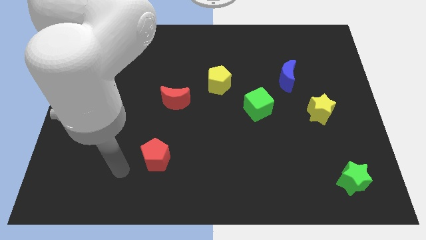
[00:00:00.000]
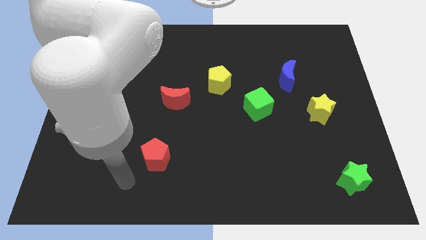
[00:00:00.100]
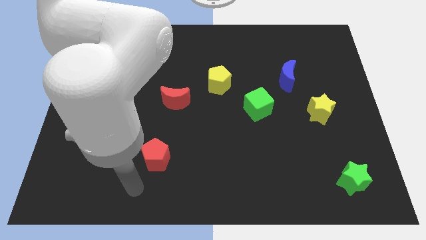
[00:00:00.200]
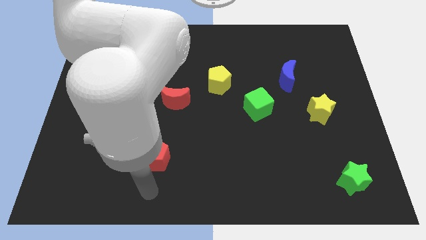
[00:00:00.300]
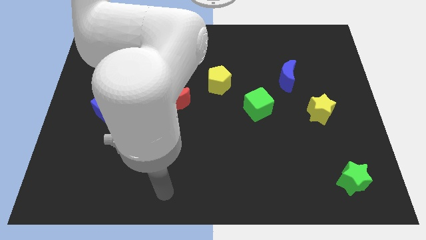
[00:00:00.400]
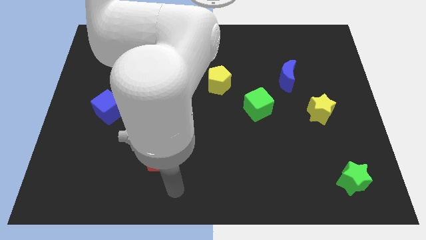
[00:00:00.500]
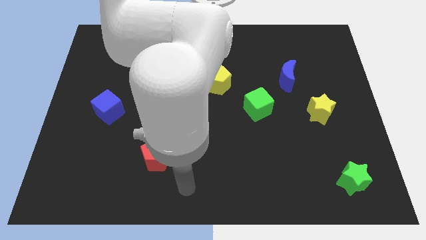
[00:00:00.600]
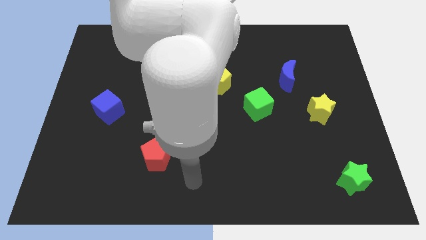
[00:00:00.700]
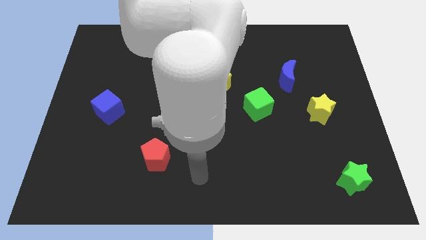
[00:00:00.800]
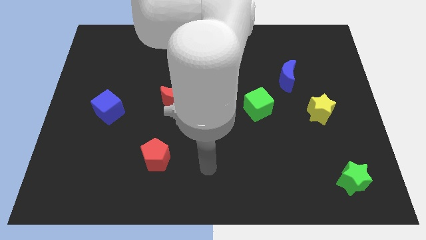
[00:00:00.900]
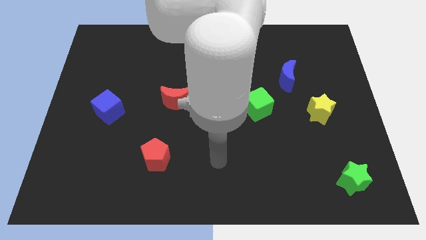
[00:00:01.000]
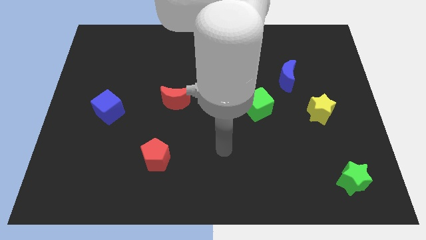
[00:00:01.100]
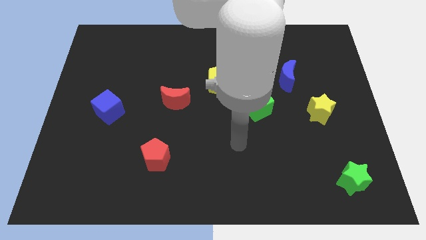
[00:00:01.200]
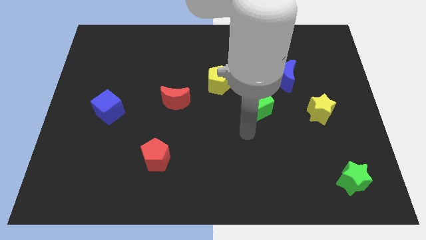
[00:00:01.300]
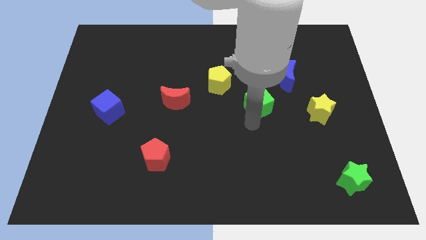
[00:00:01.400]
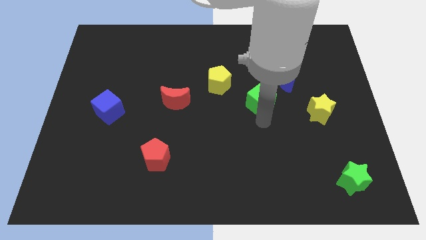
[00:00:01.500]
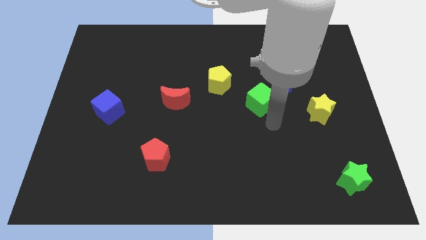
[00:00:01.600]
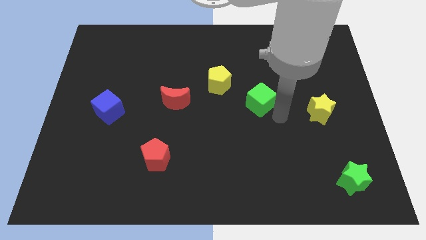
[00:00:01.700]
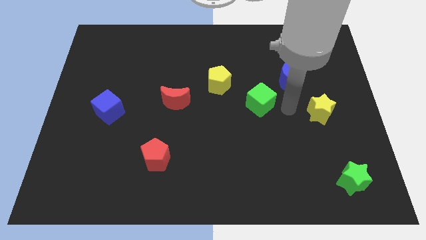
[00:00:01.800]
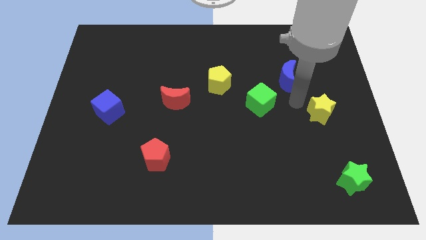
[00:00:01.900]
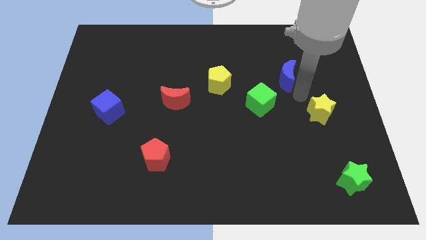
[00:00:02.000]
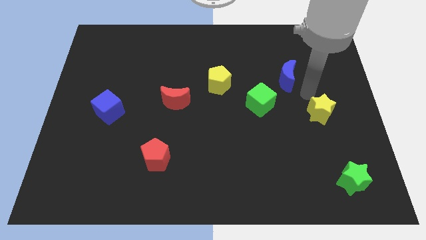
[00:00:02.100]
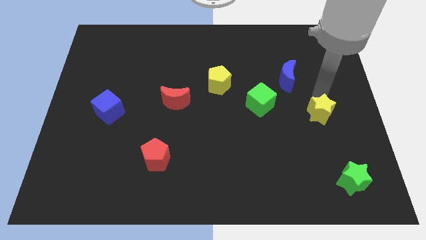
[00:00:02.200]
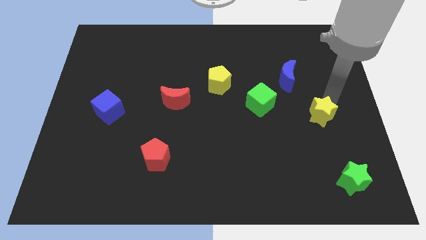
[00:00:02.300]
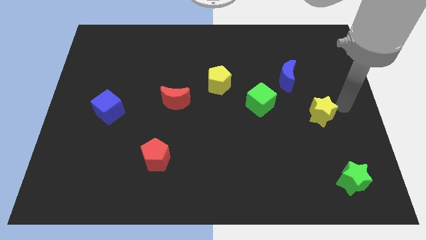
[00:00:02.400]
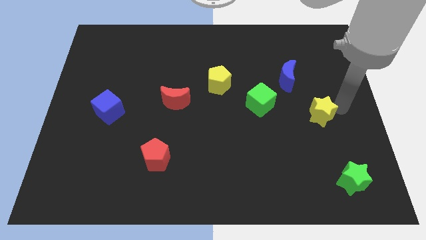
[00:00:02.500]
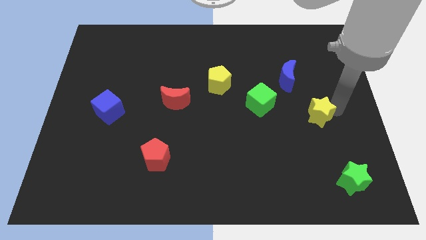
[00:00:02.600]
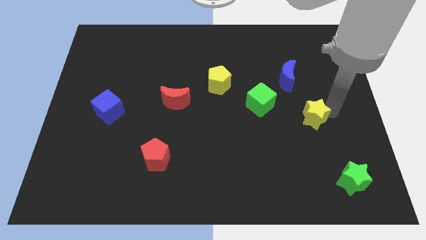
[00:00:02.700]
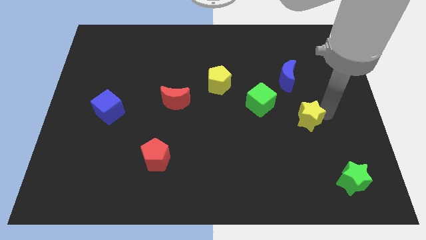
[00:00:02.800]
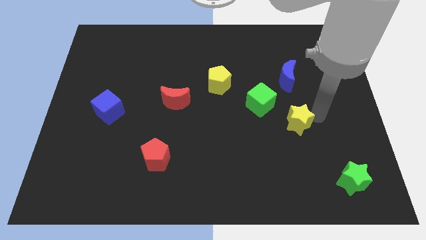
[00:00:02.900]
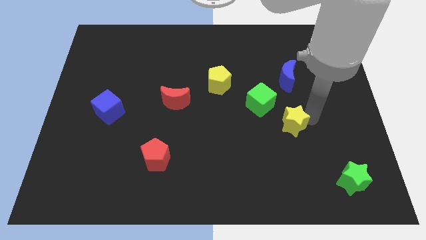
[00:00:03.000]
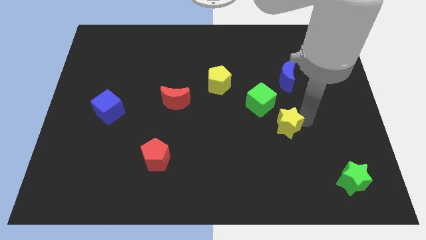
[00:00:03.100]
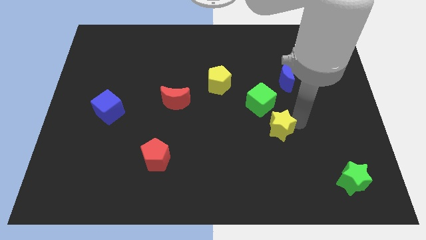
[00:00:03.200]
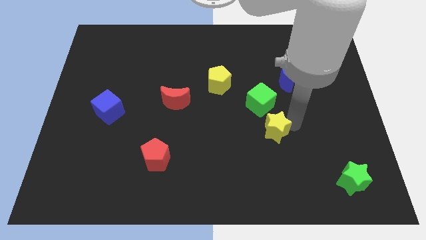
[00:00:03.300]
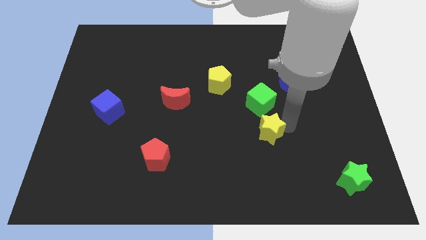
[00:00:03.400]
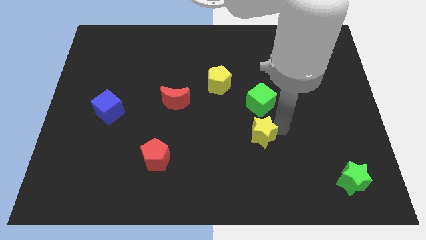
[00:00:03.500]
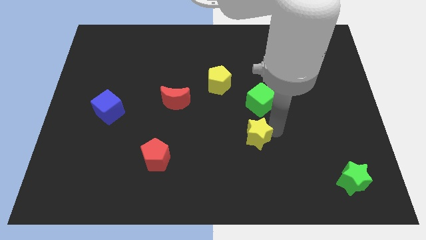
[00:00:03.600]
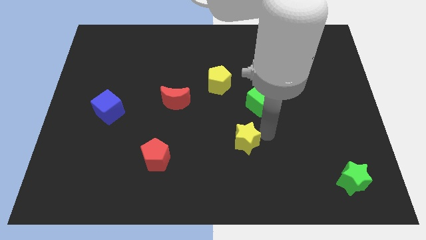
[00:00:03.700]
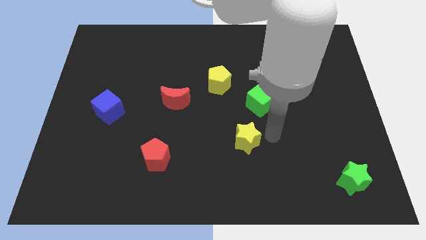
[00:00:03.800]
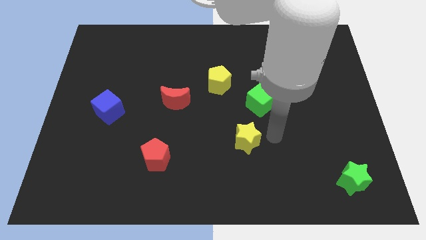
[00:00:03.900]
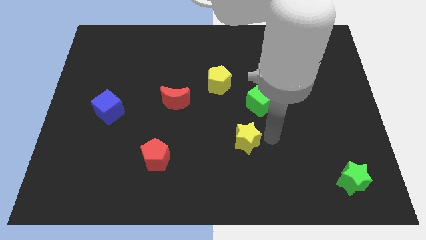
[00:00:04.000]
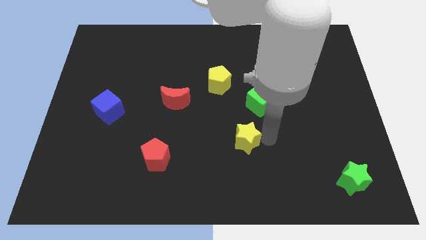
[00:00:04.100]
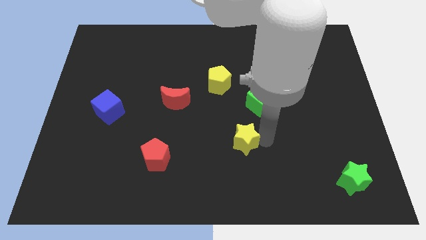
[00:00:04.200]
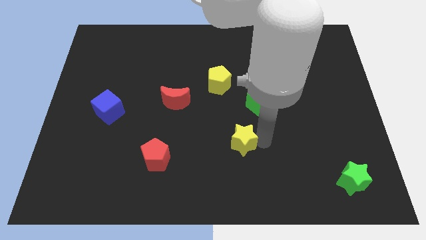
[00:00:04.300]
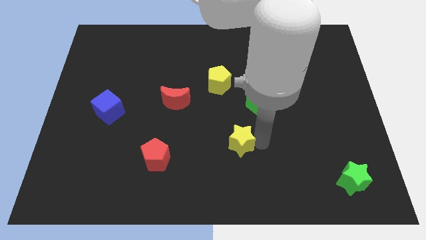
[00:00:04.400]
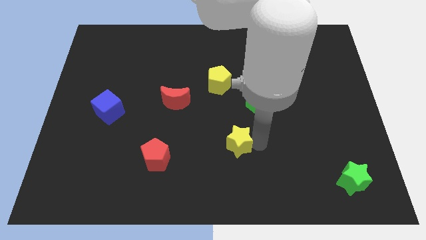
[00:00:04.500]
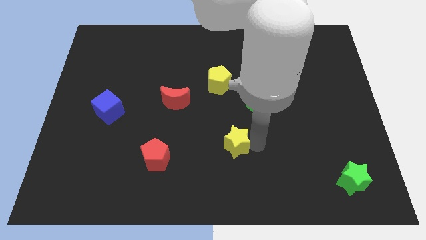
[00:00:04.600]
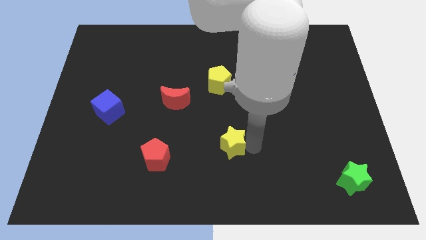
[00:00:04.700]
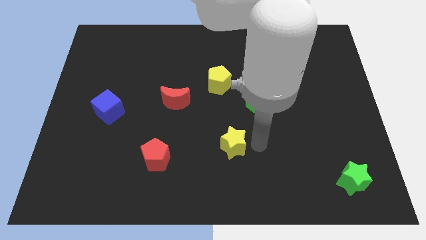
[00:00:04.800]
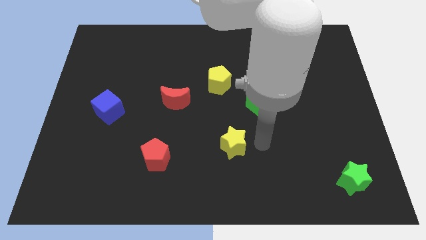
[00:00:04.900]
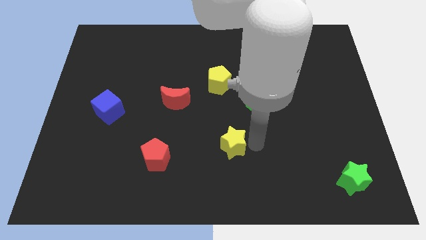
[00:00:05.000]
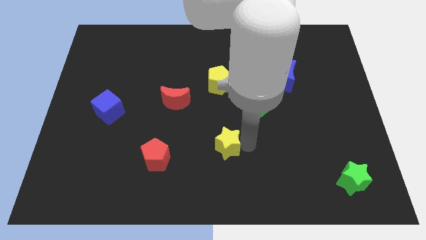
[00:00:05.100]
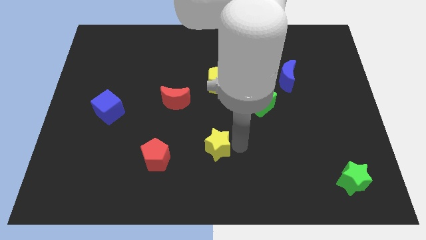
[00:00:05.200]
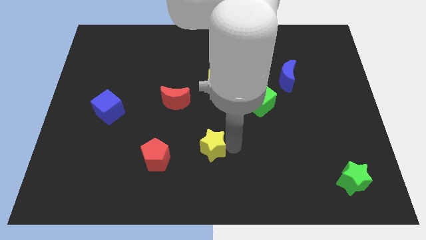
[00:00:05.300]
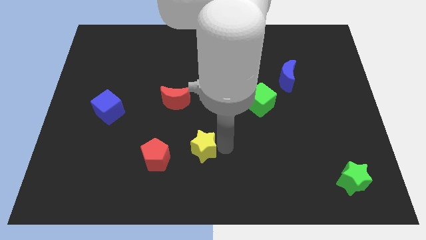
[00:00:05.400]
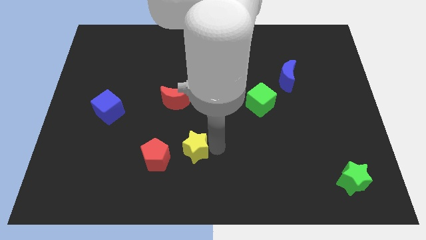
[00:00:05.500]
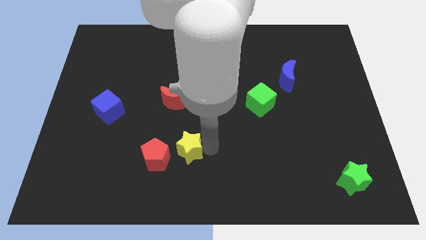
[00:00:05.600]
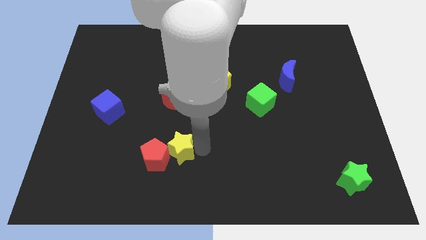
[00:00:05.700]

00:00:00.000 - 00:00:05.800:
move the yellow star to the red pentagon

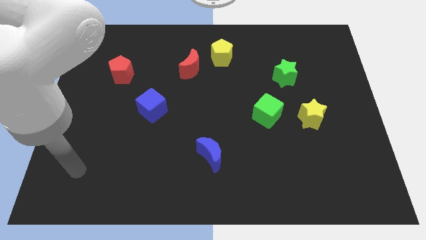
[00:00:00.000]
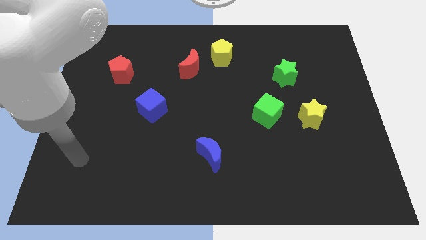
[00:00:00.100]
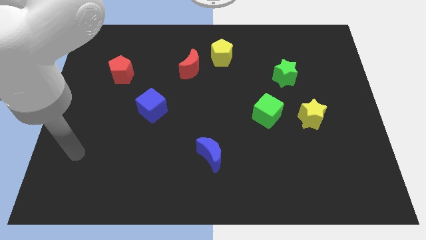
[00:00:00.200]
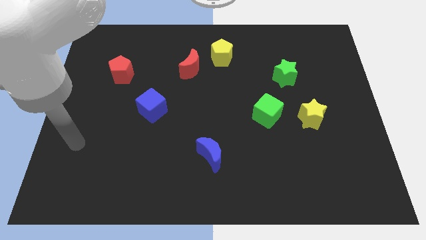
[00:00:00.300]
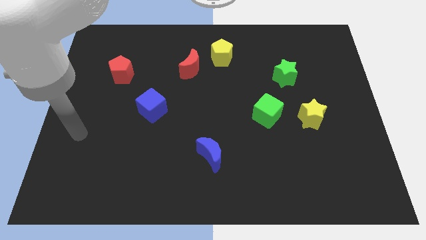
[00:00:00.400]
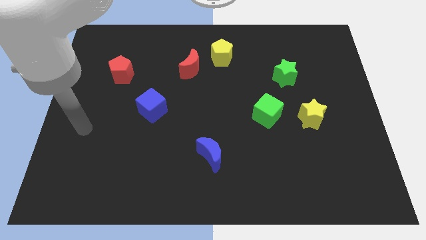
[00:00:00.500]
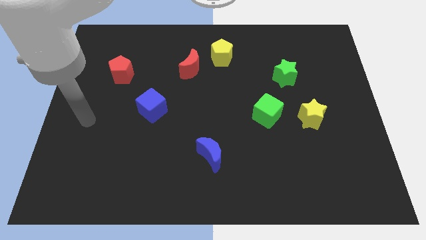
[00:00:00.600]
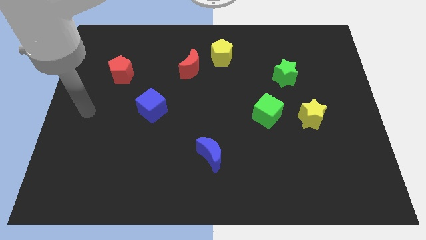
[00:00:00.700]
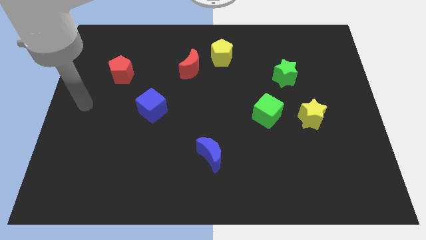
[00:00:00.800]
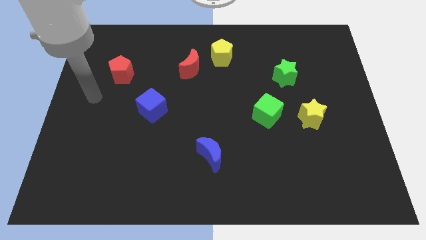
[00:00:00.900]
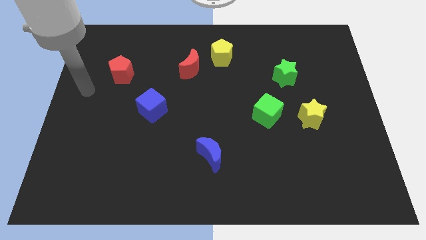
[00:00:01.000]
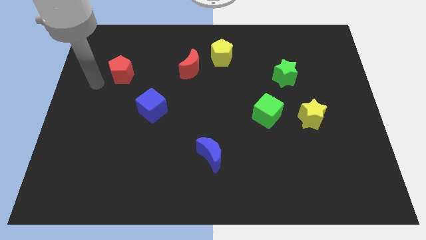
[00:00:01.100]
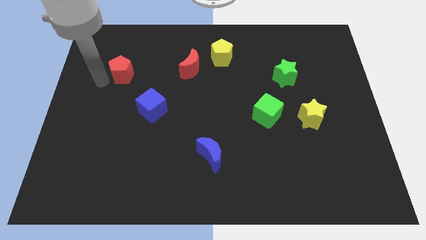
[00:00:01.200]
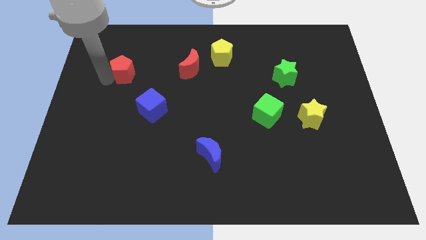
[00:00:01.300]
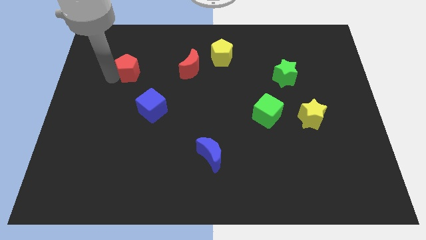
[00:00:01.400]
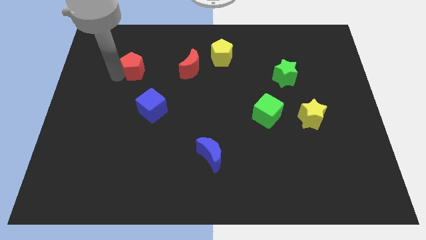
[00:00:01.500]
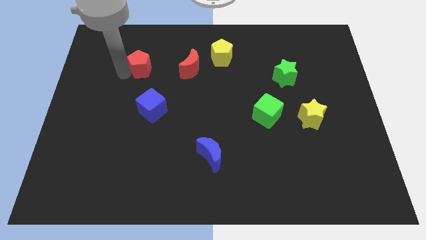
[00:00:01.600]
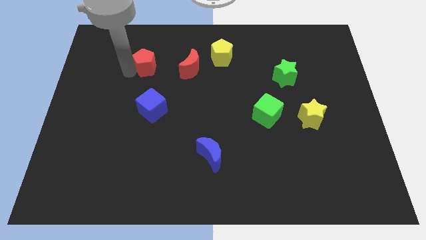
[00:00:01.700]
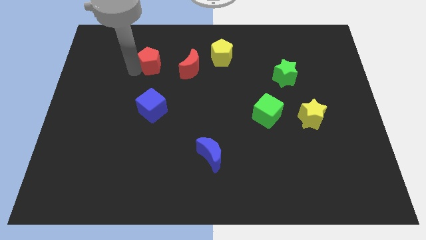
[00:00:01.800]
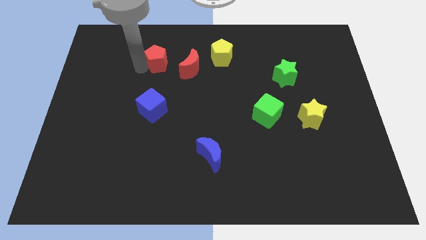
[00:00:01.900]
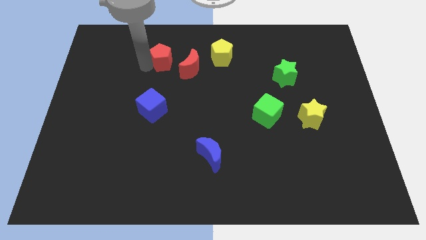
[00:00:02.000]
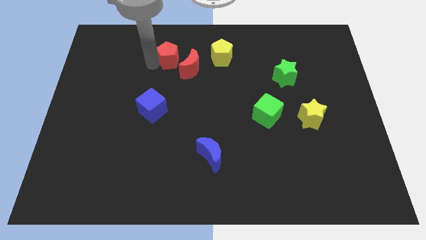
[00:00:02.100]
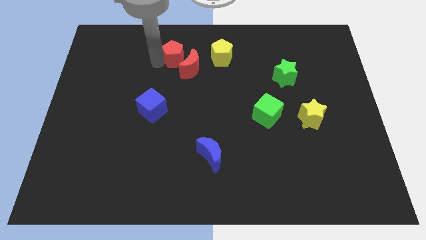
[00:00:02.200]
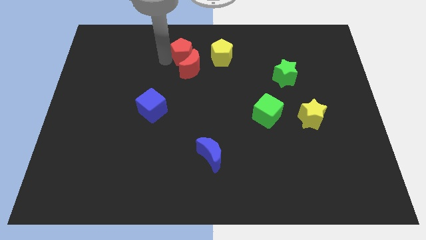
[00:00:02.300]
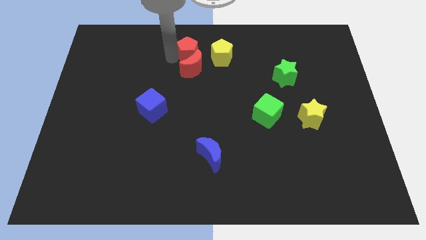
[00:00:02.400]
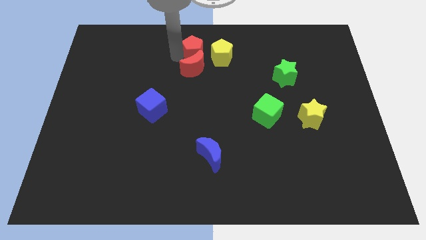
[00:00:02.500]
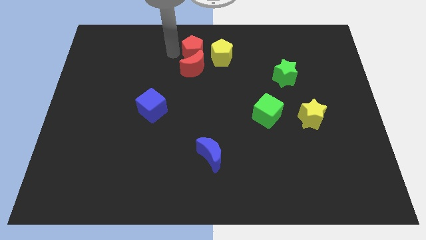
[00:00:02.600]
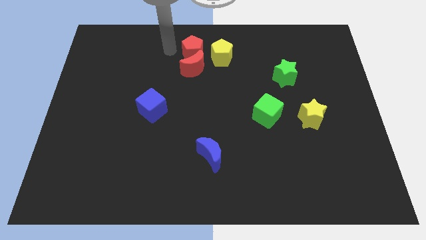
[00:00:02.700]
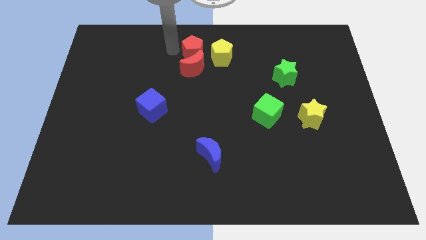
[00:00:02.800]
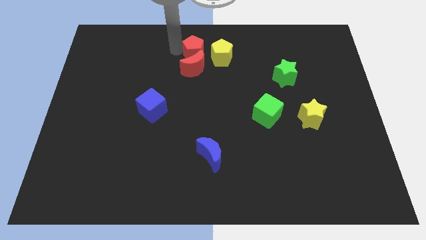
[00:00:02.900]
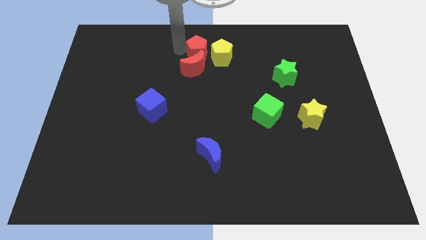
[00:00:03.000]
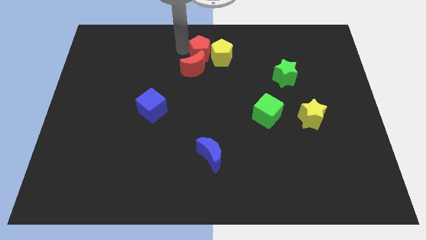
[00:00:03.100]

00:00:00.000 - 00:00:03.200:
slide the red pentagon to the yellow pentagon
